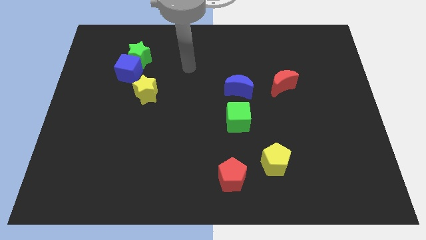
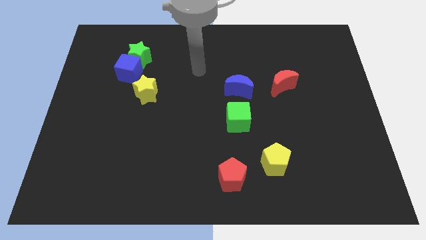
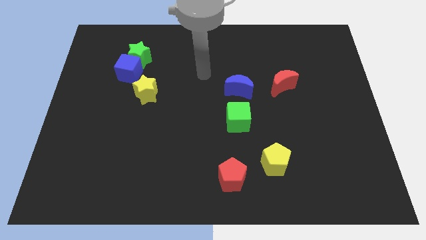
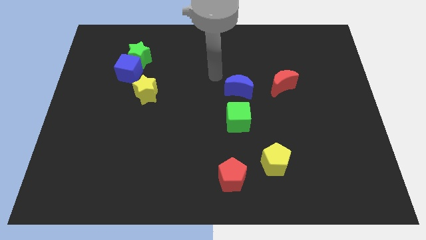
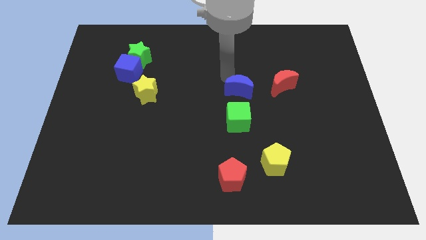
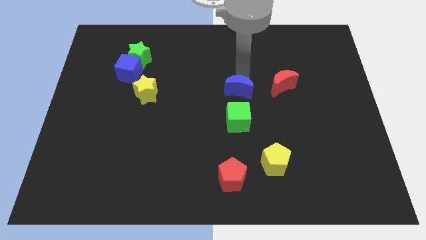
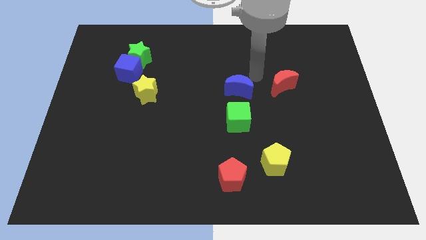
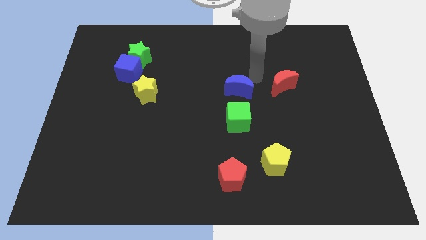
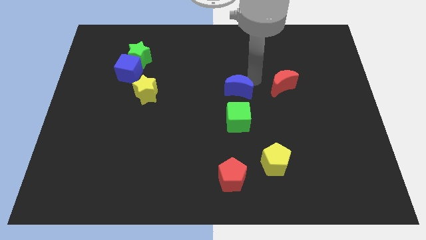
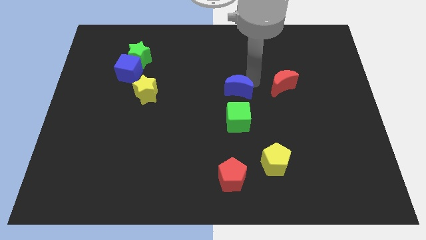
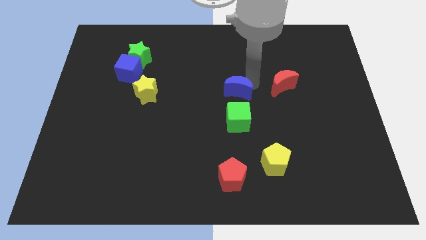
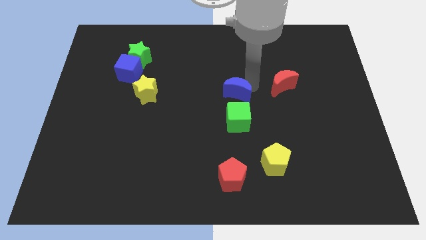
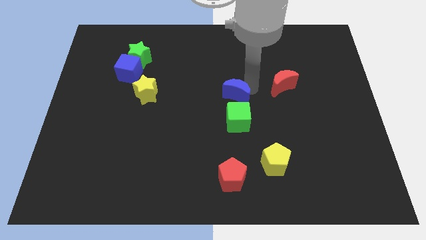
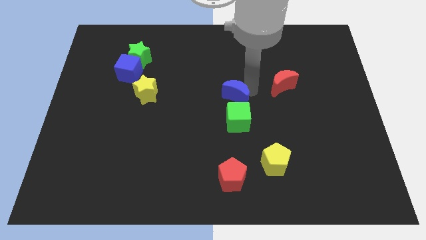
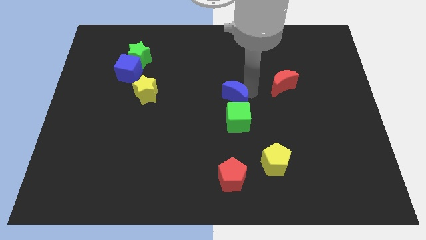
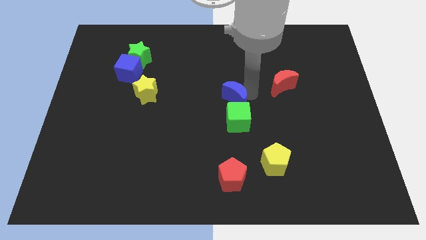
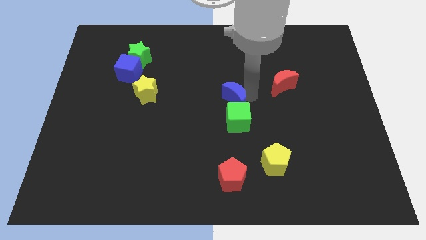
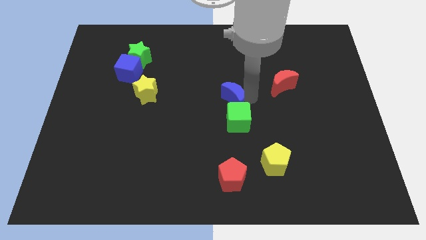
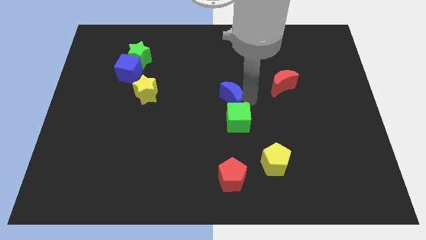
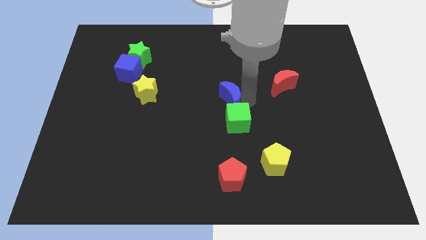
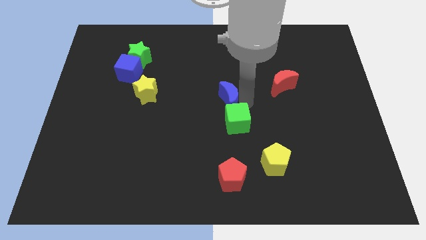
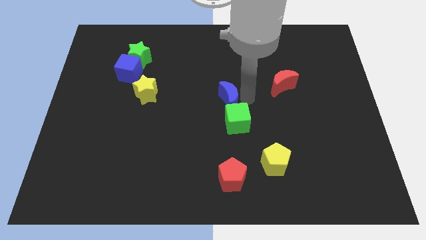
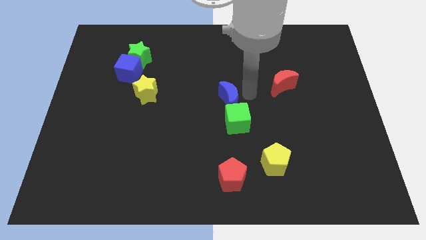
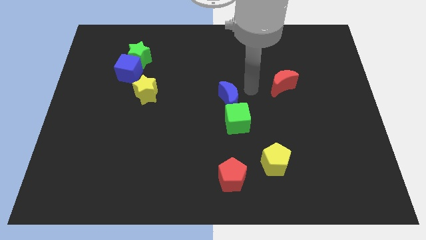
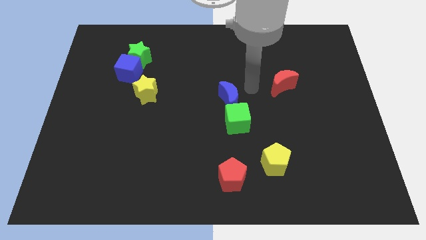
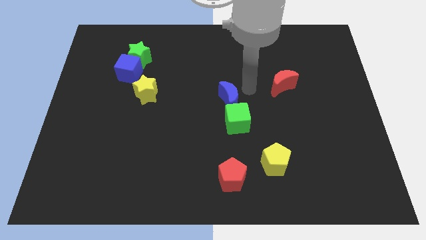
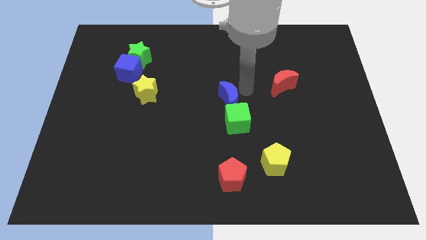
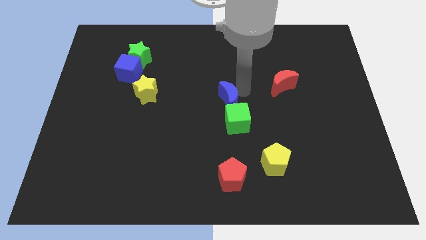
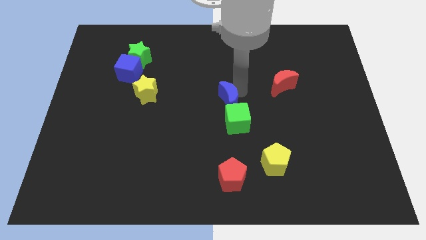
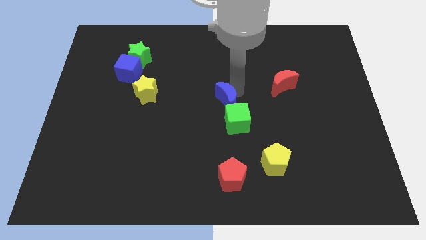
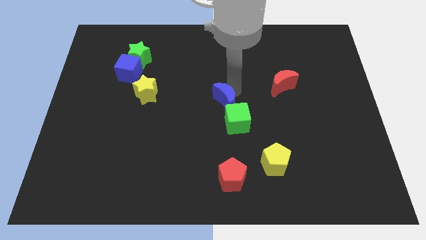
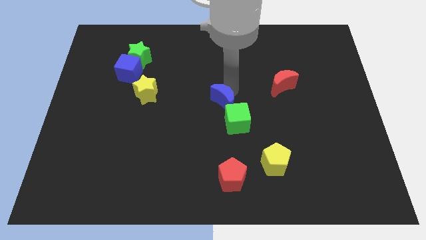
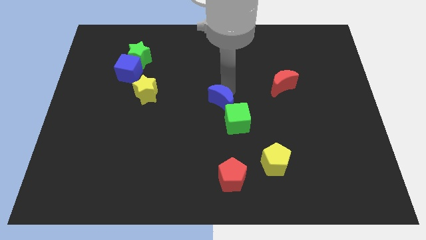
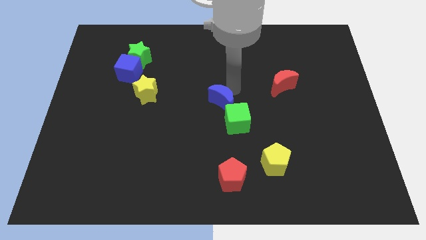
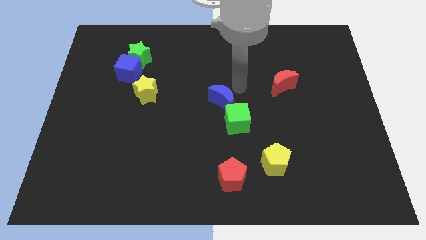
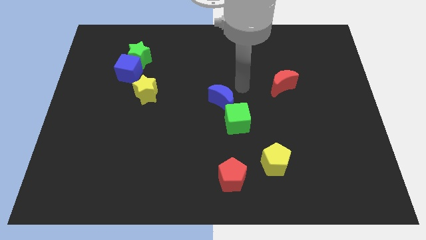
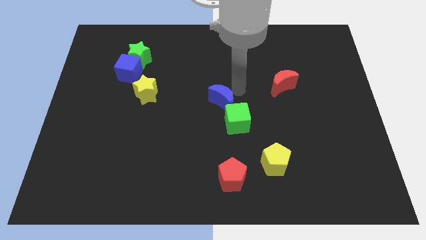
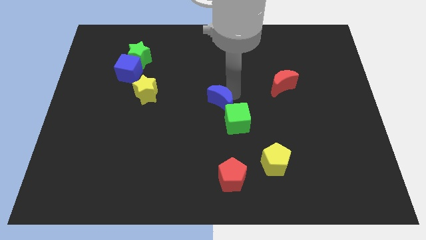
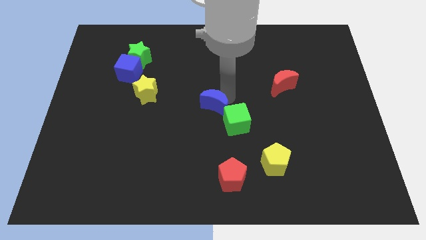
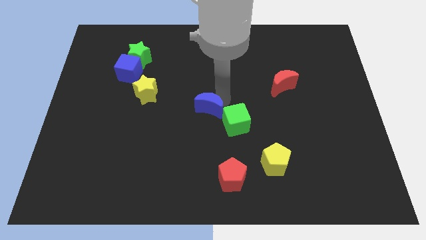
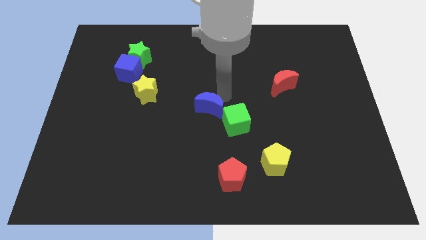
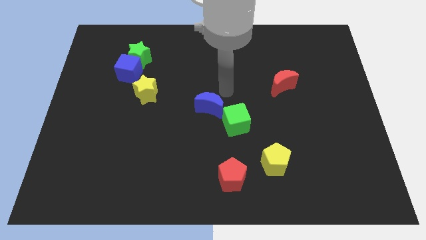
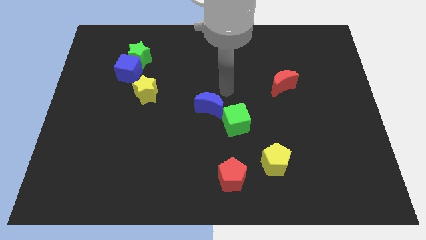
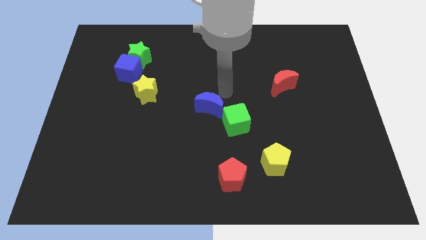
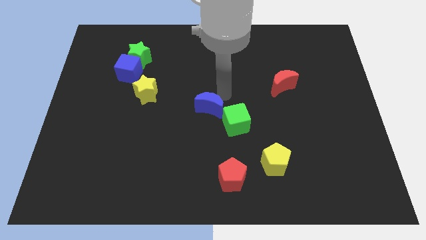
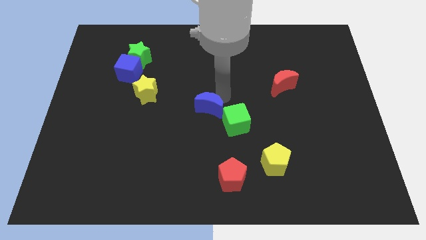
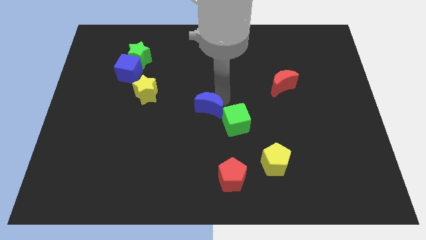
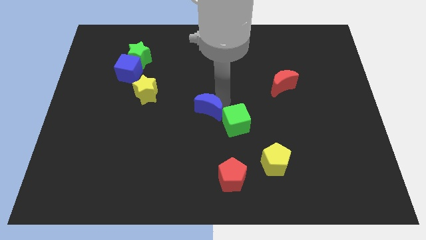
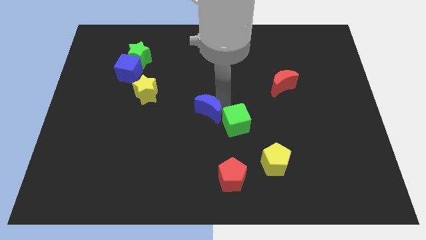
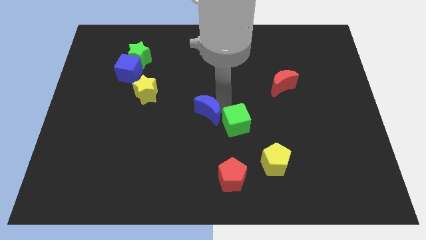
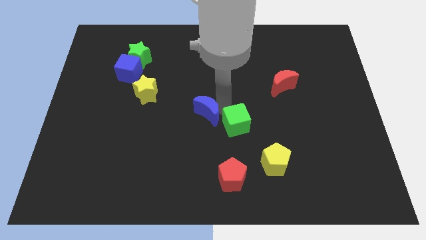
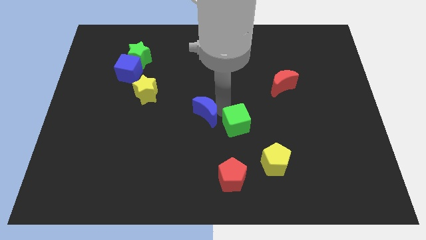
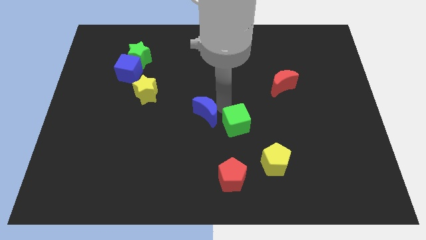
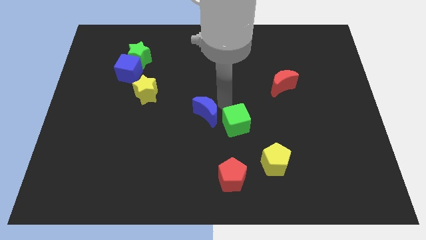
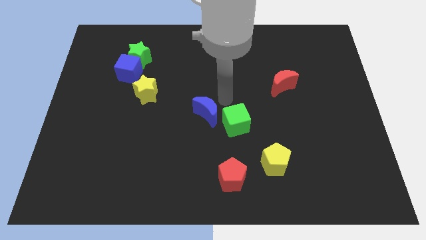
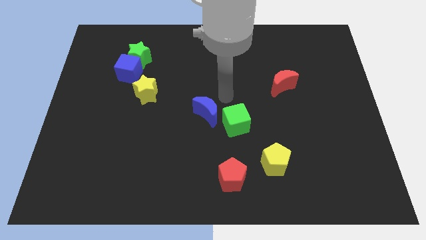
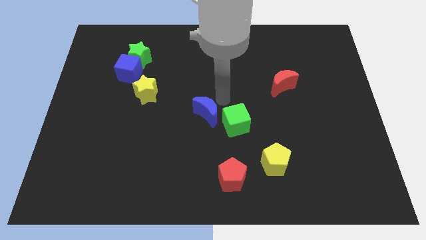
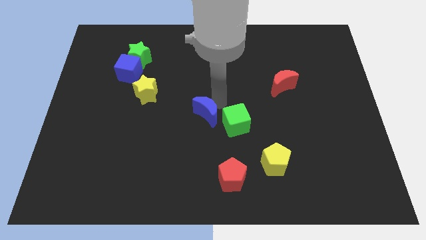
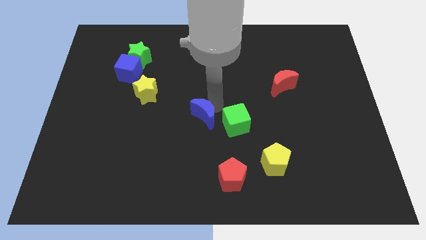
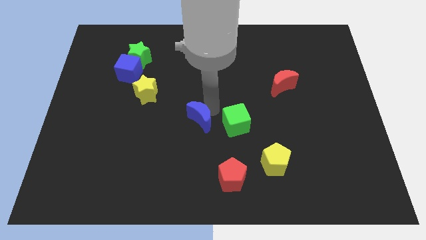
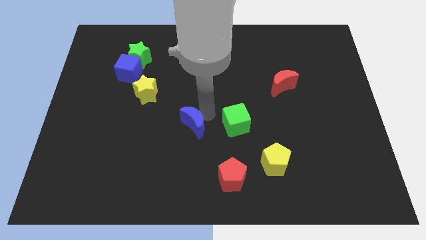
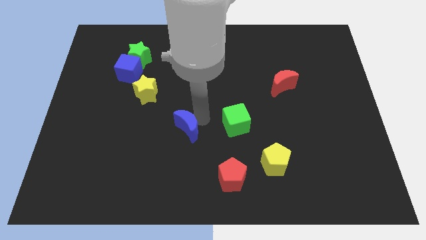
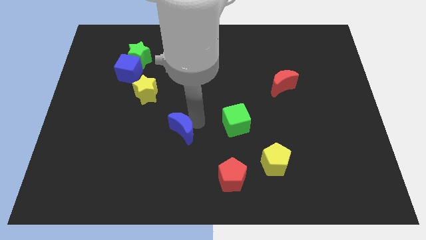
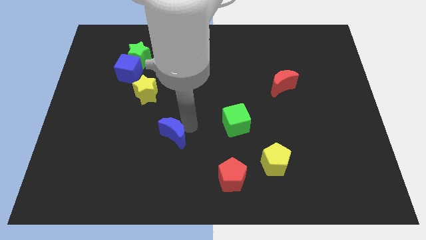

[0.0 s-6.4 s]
push the blue moon downwards and to the left

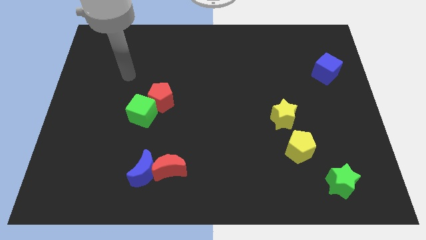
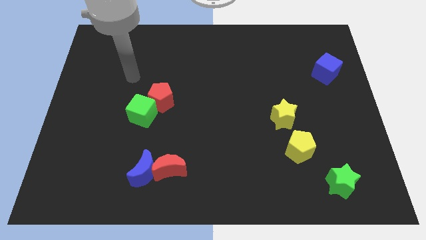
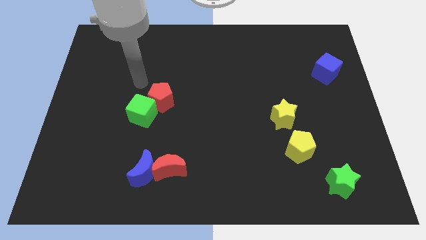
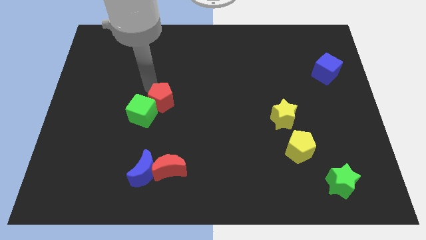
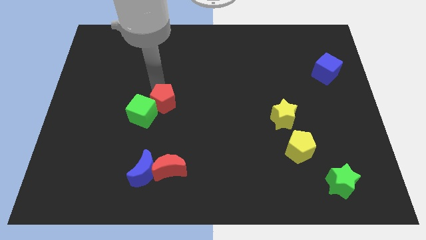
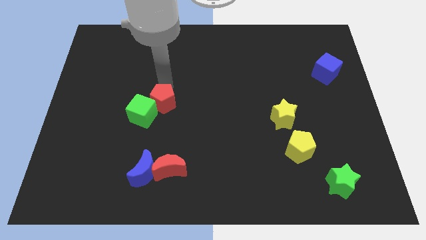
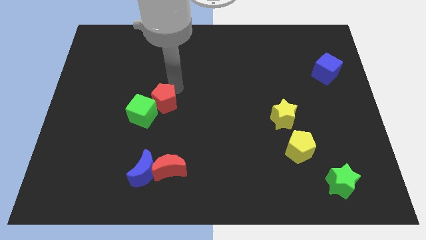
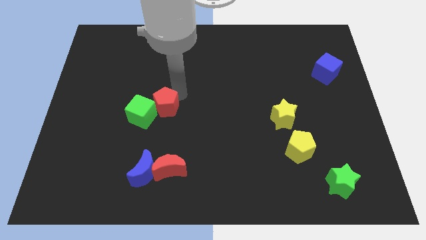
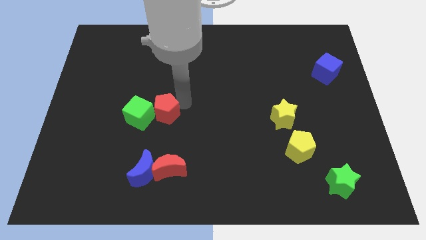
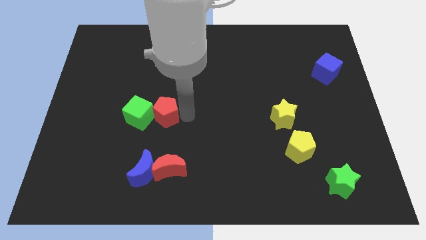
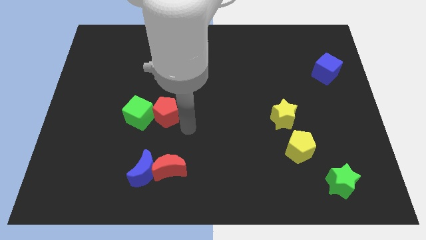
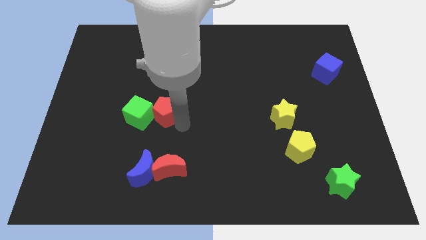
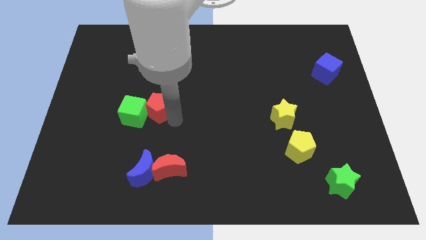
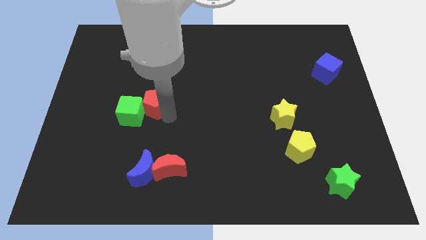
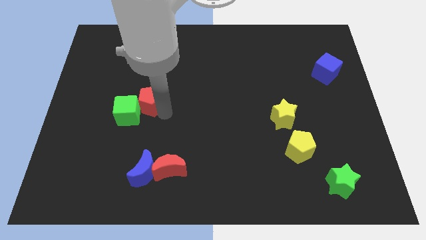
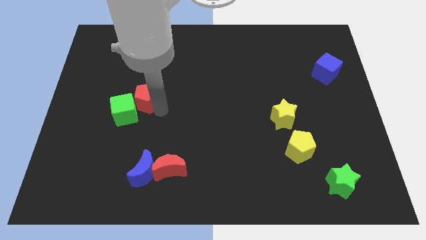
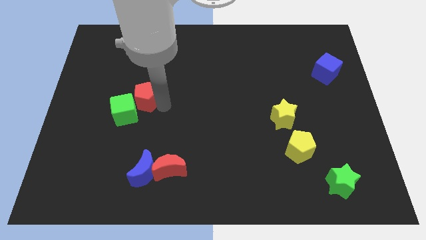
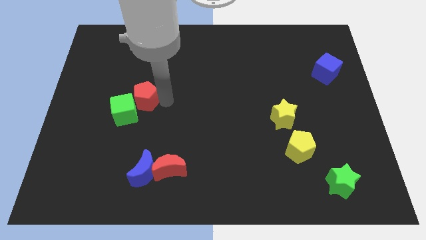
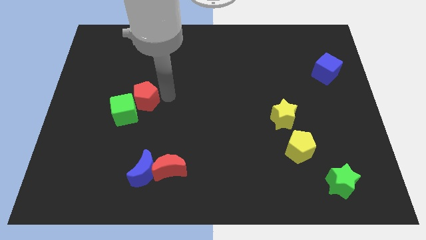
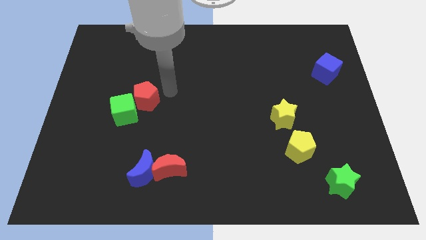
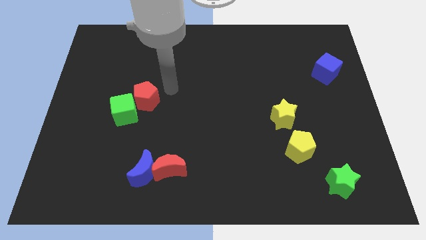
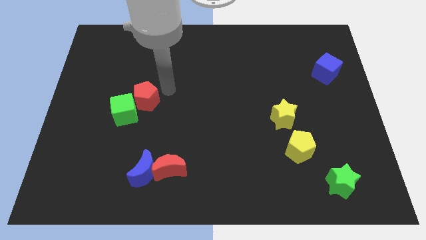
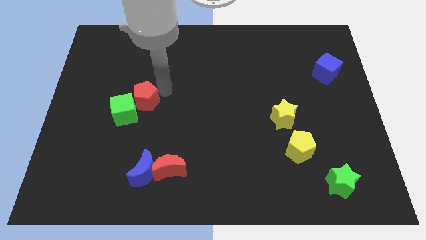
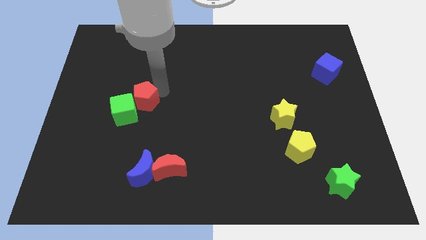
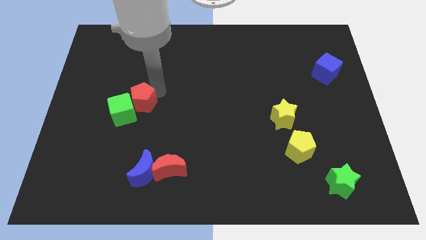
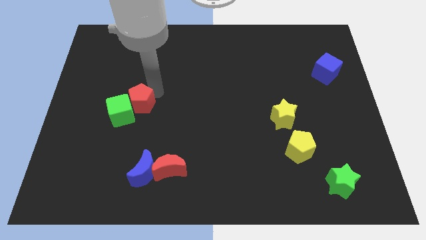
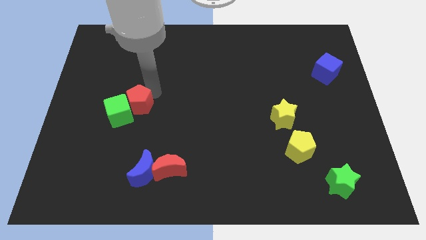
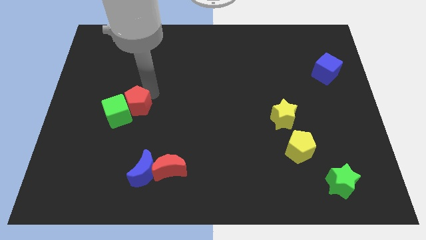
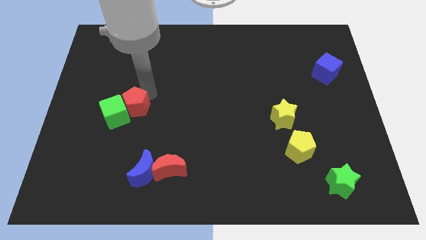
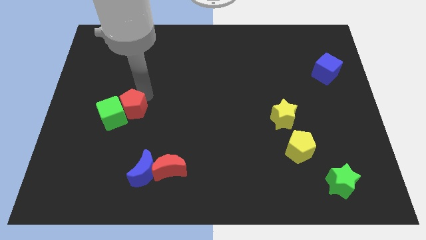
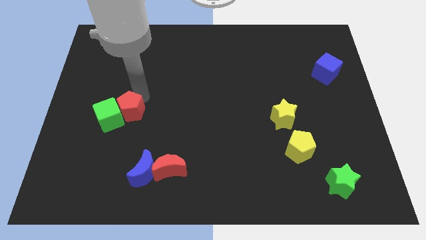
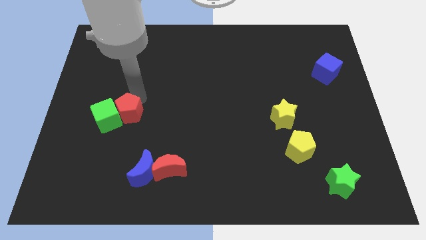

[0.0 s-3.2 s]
slightly push the red pentagon downwards and left diagonally
